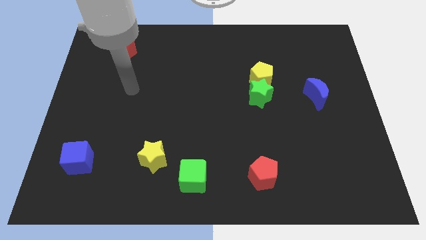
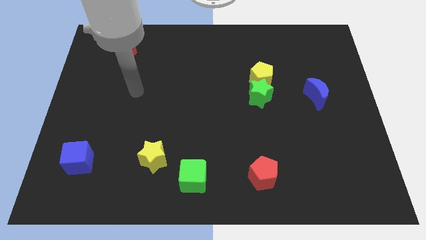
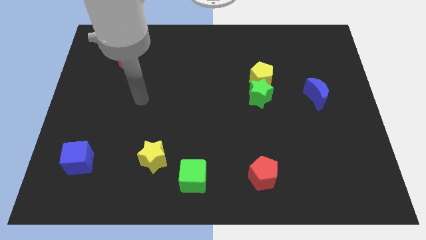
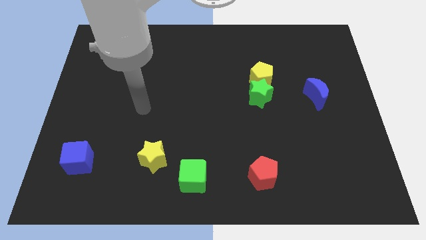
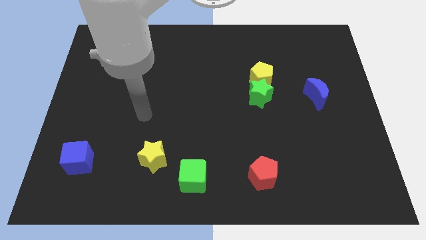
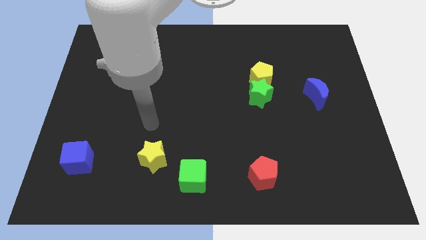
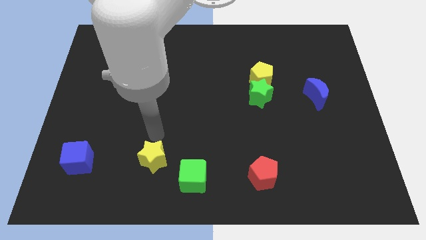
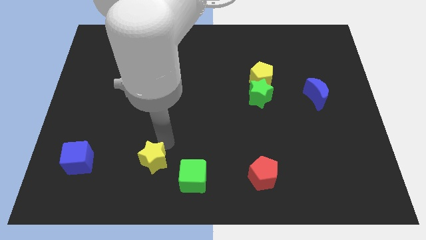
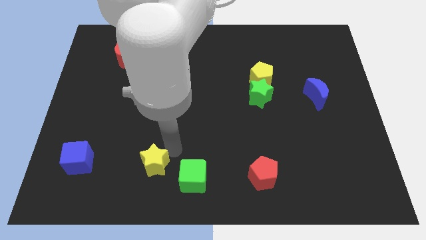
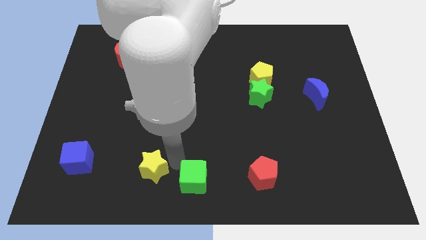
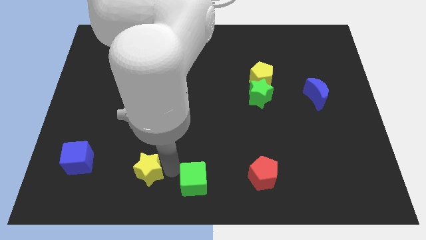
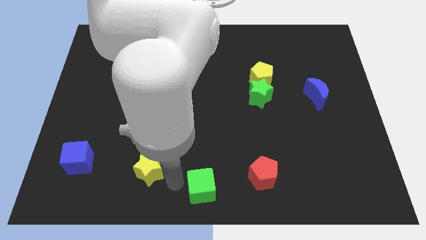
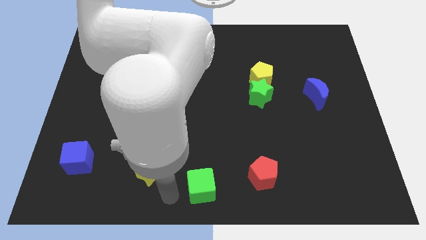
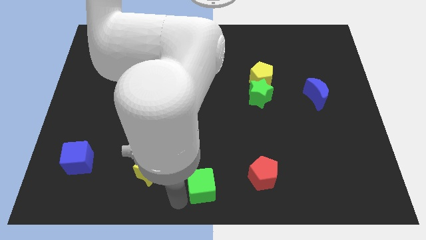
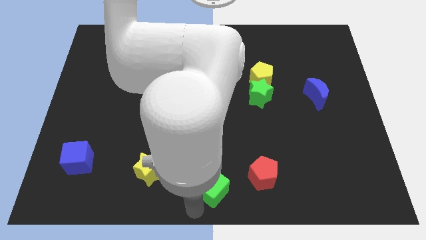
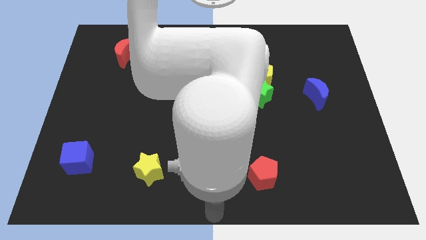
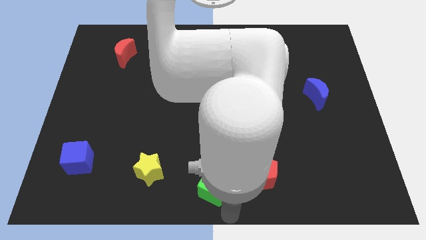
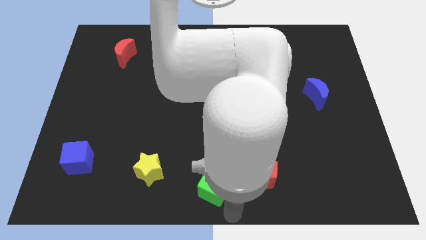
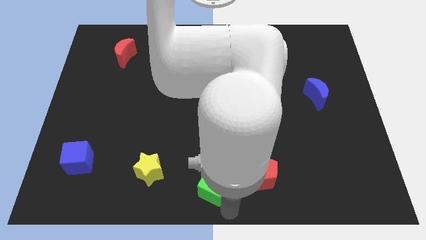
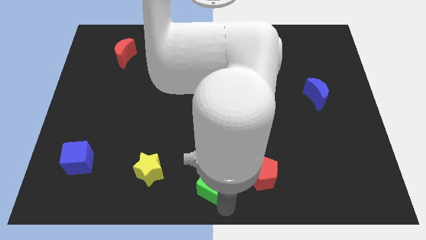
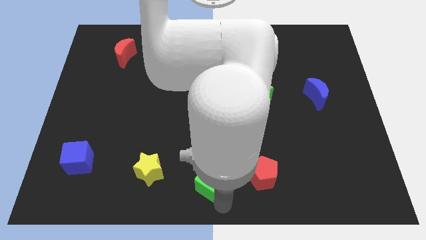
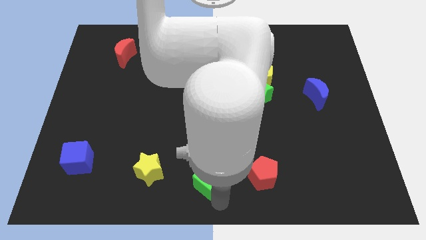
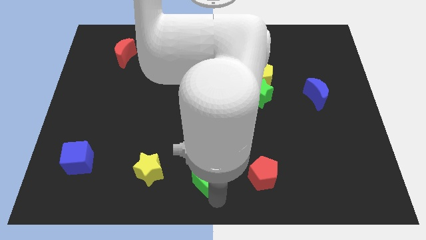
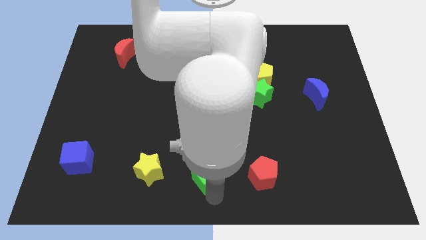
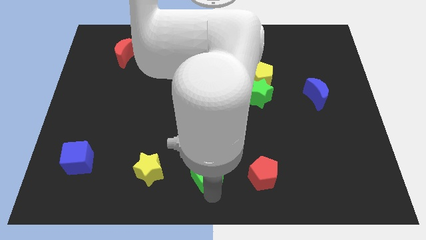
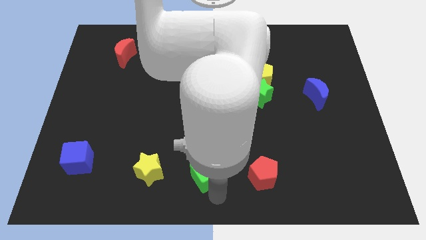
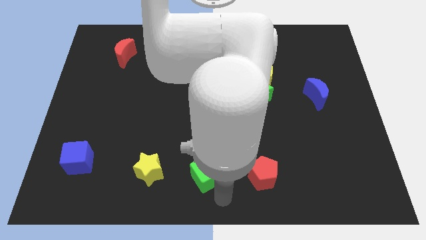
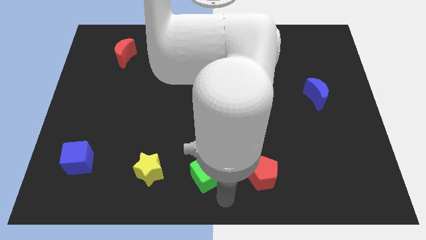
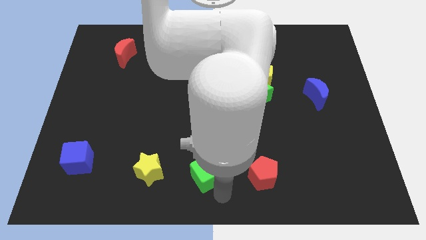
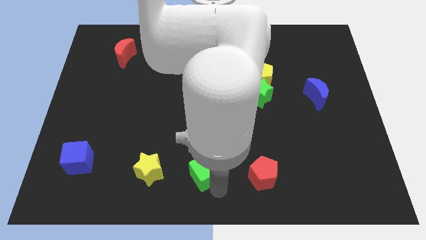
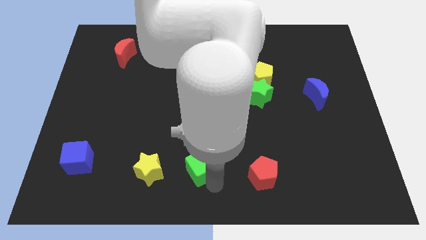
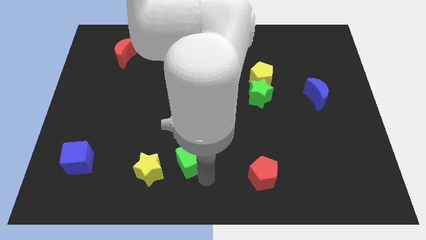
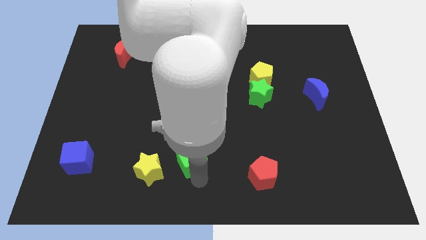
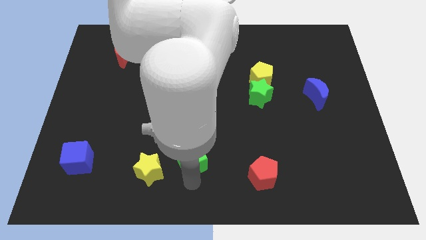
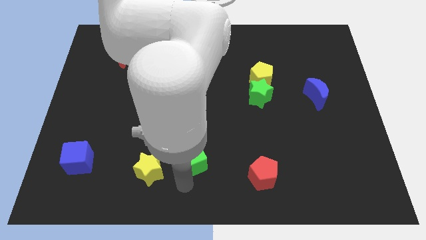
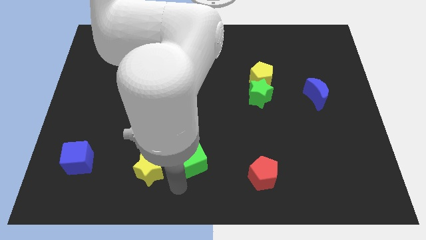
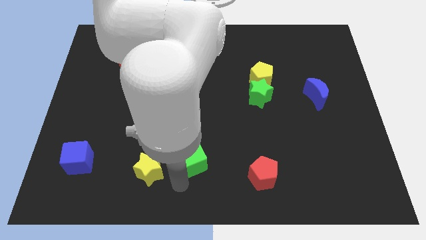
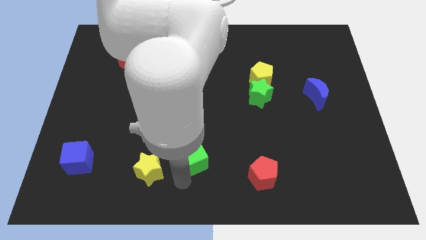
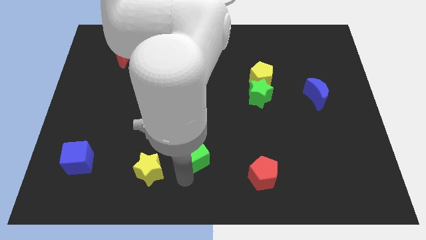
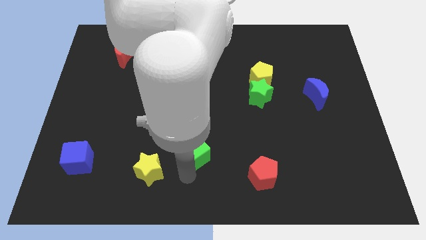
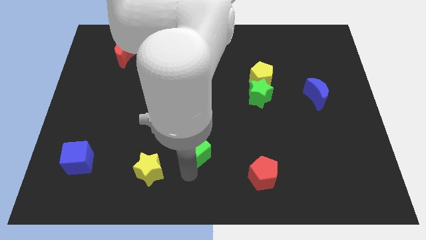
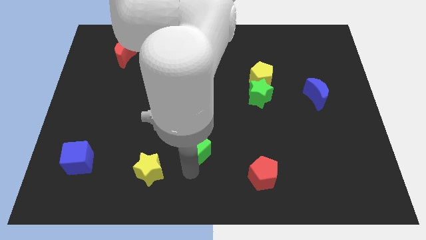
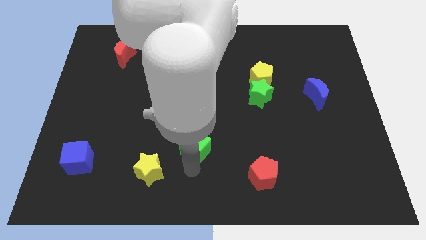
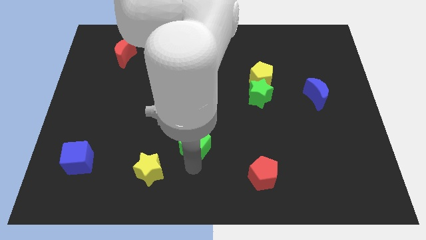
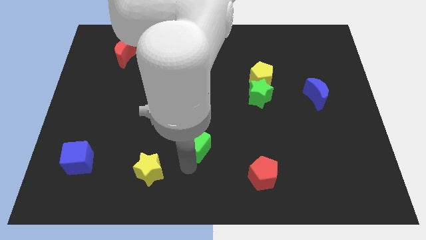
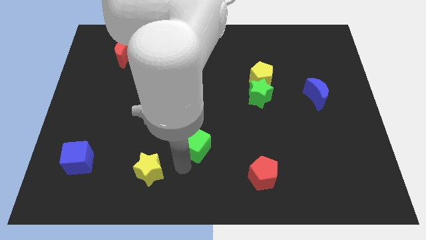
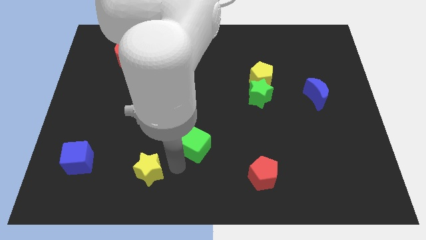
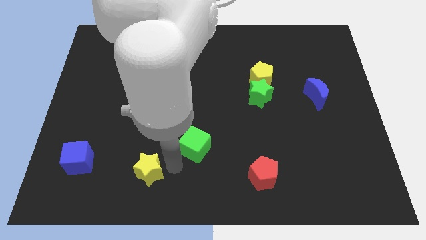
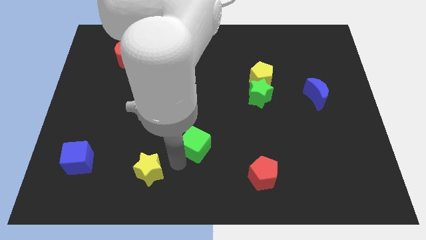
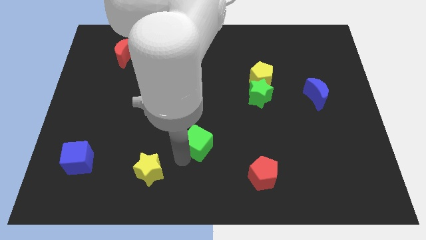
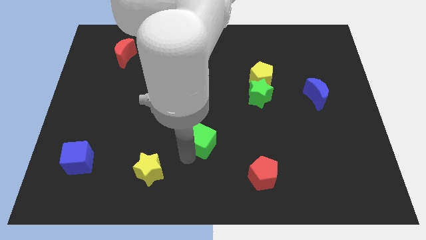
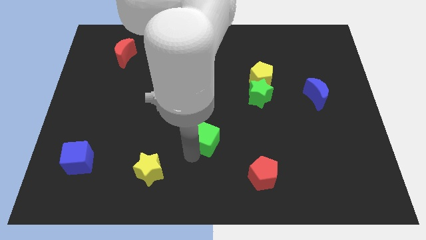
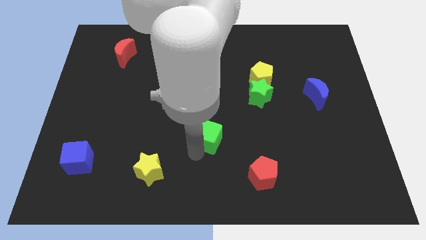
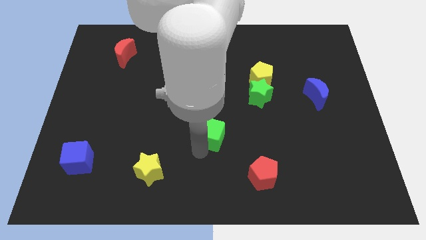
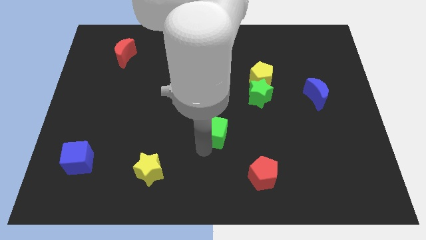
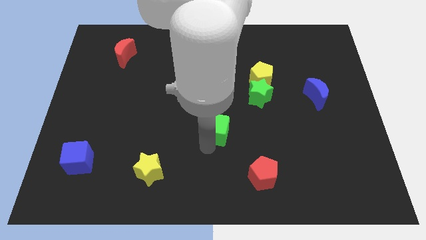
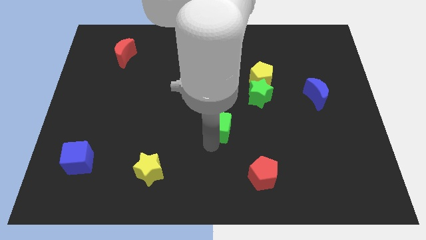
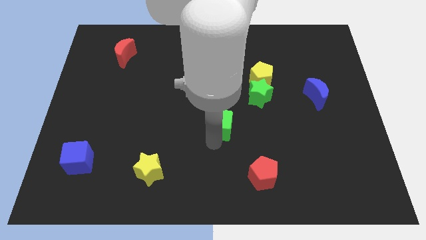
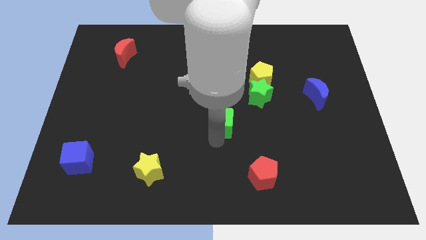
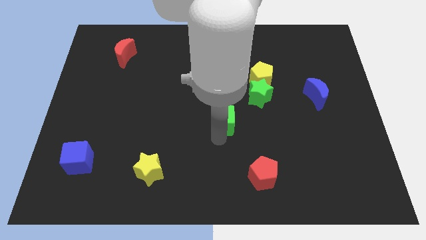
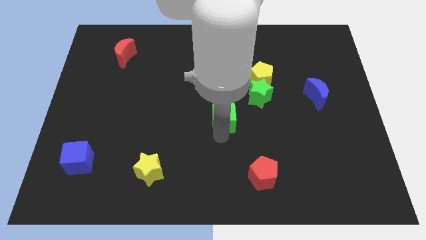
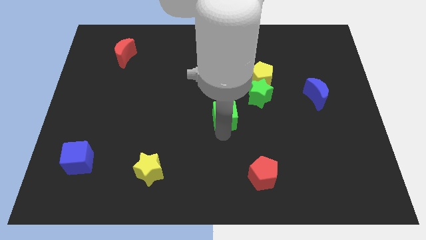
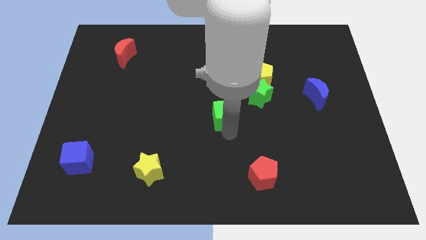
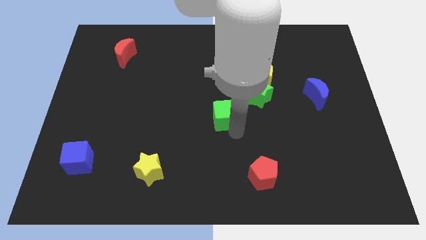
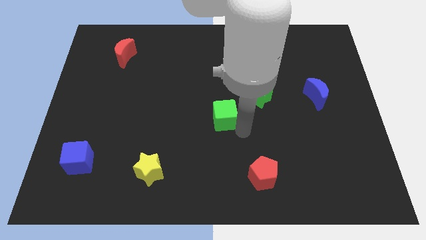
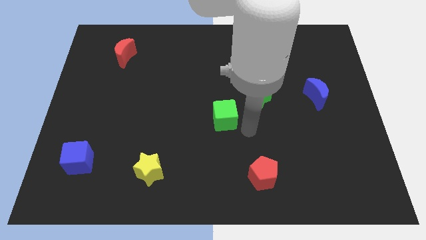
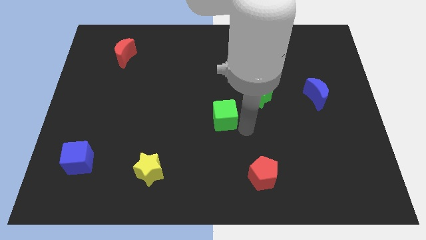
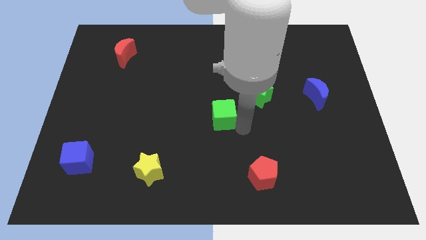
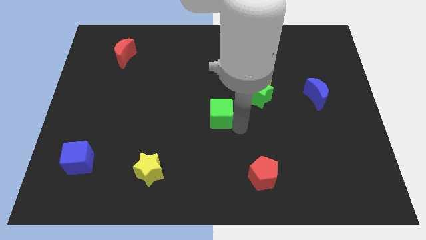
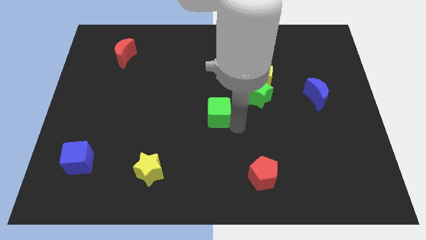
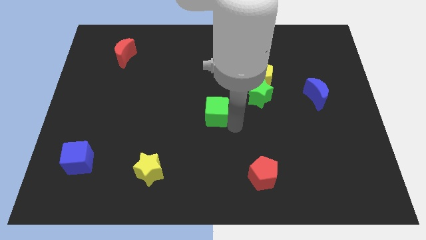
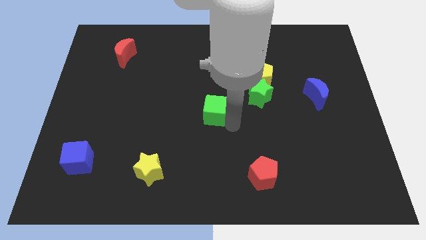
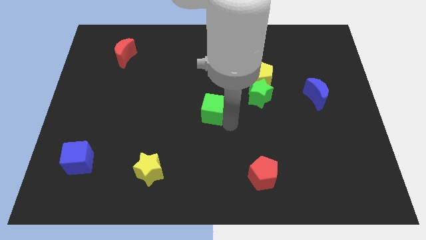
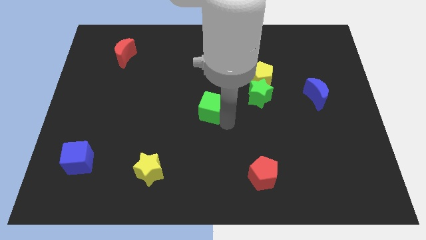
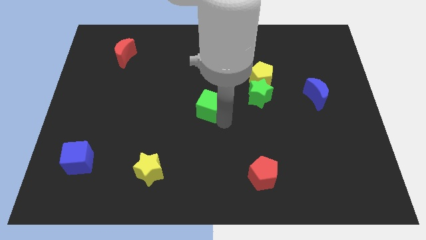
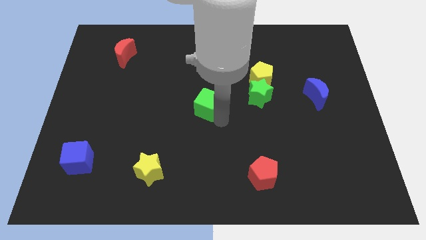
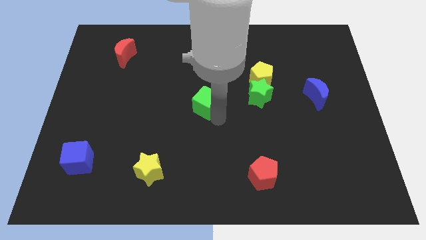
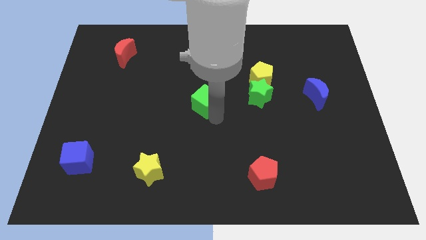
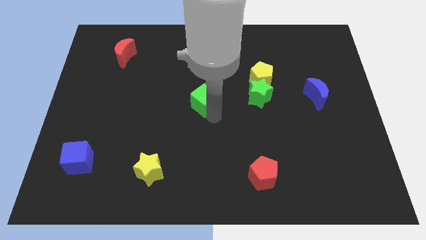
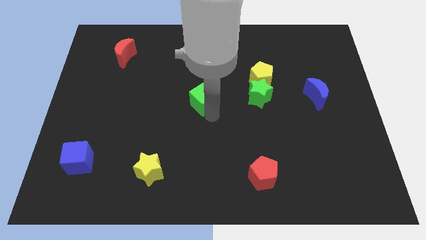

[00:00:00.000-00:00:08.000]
slide the green cube up
